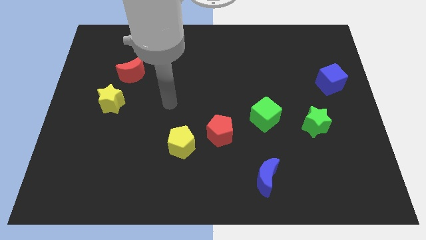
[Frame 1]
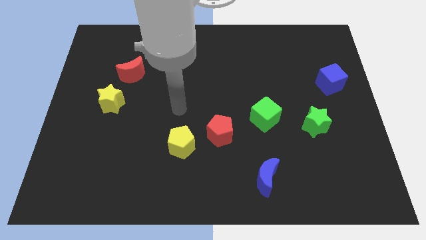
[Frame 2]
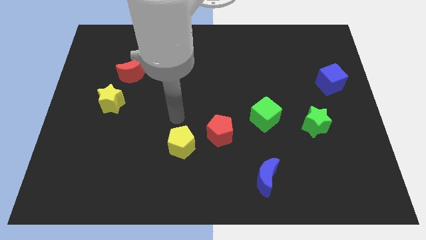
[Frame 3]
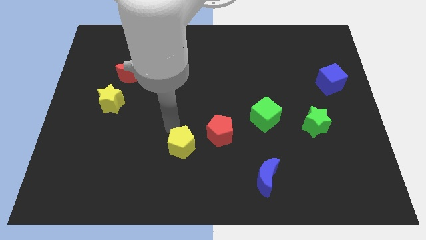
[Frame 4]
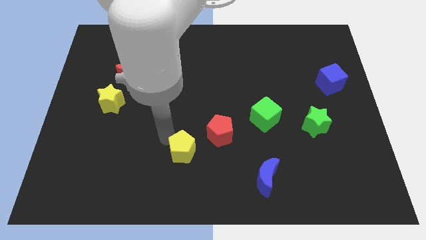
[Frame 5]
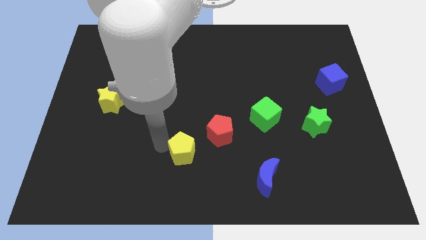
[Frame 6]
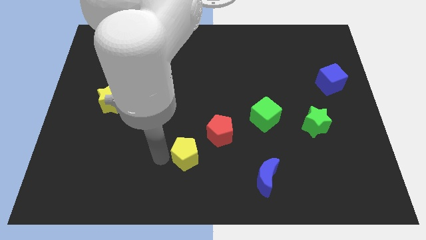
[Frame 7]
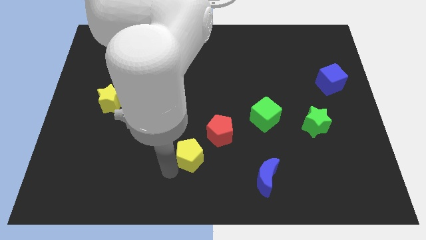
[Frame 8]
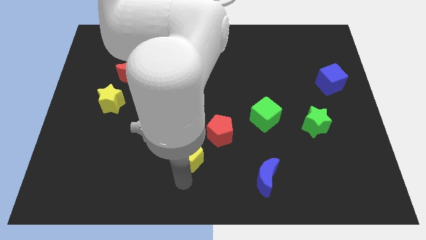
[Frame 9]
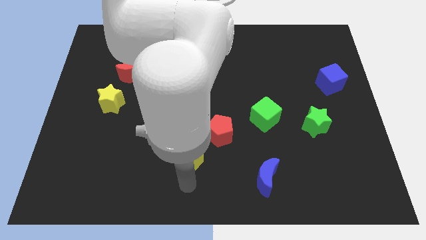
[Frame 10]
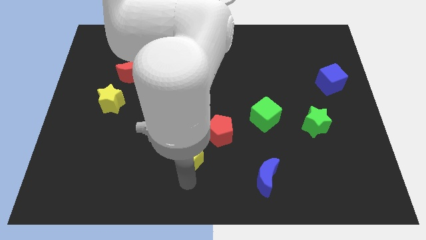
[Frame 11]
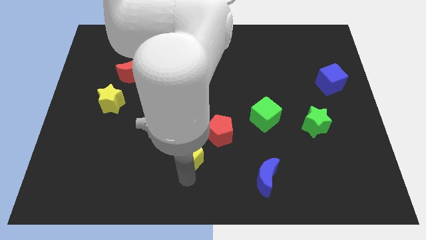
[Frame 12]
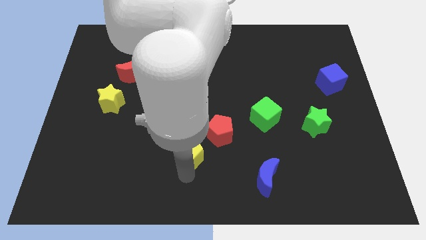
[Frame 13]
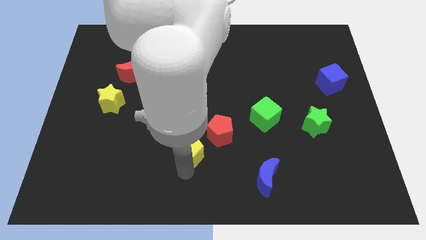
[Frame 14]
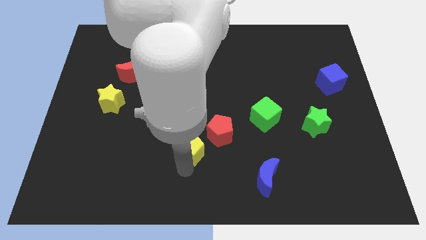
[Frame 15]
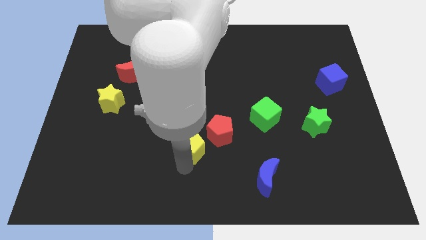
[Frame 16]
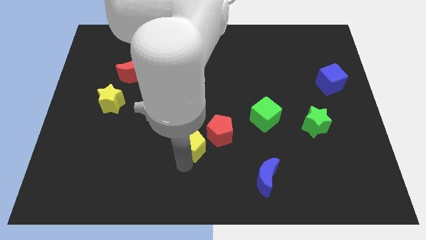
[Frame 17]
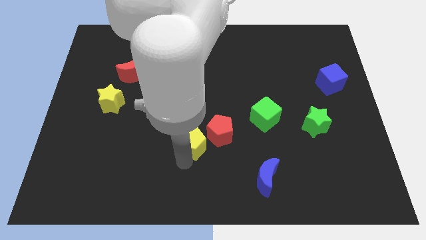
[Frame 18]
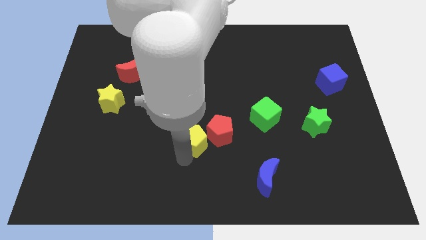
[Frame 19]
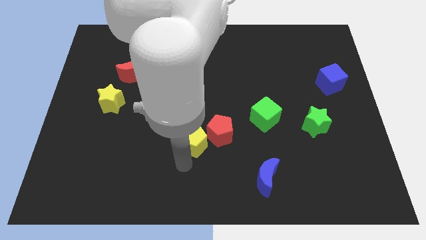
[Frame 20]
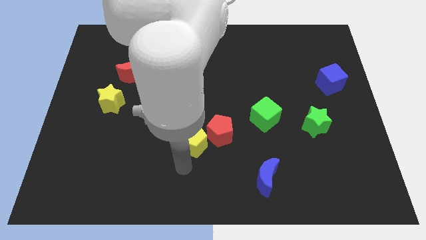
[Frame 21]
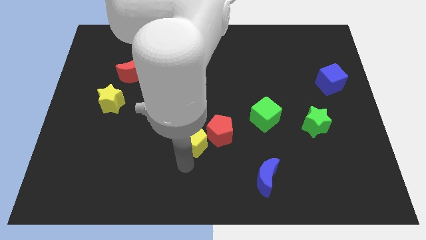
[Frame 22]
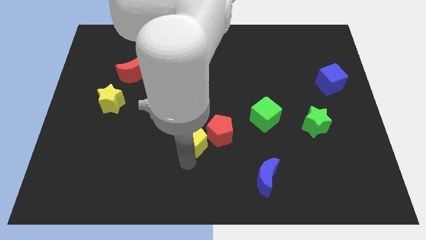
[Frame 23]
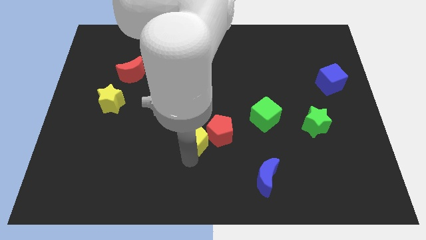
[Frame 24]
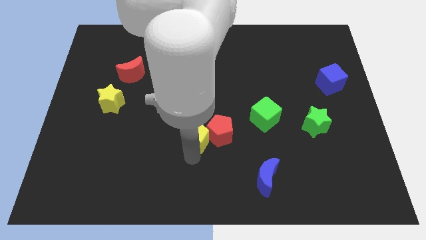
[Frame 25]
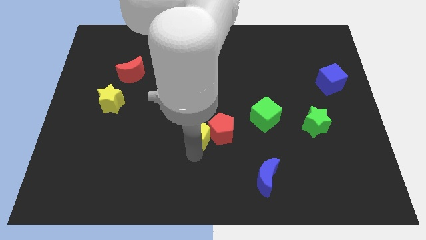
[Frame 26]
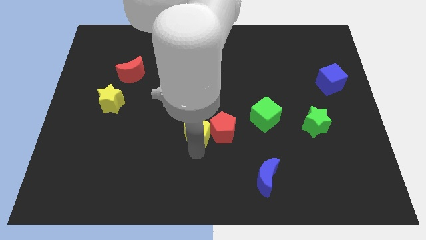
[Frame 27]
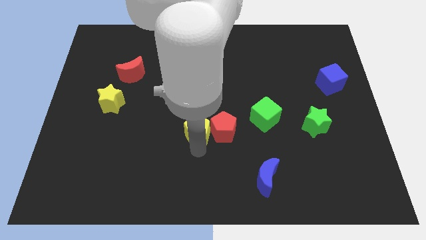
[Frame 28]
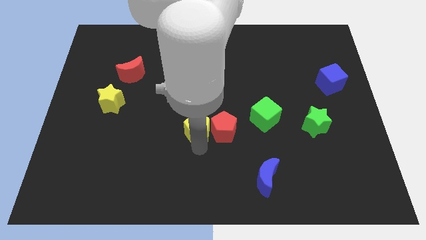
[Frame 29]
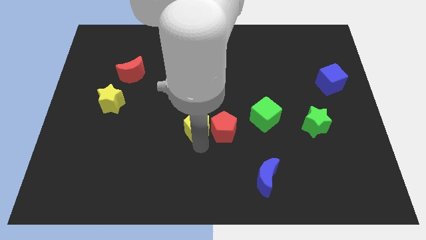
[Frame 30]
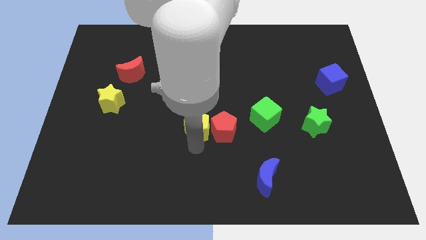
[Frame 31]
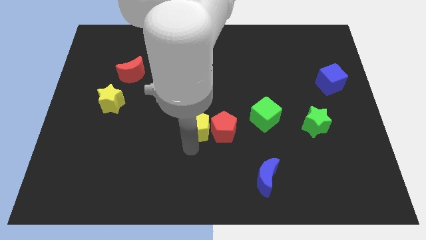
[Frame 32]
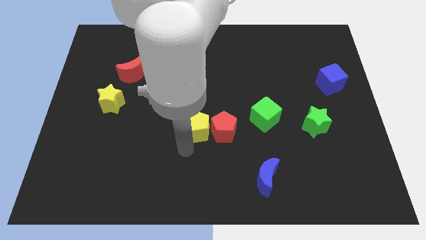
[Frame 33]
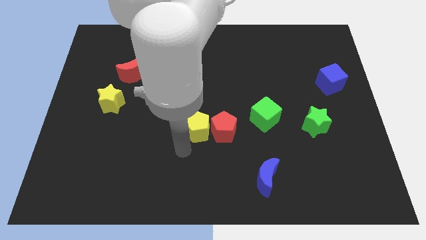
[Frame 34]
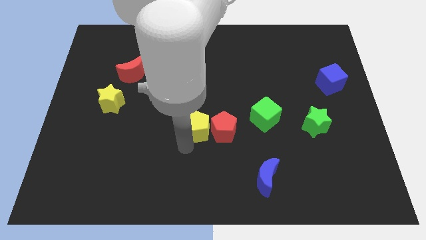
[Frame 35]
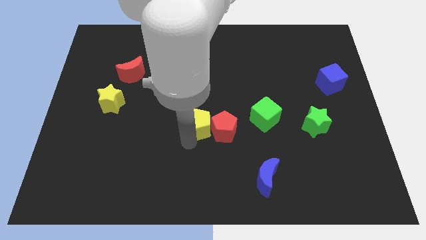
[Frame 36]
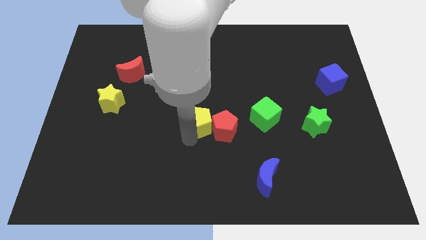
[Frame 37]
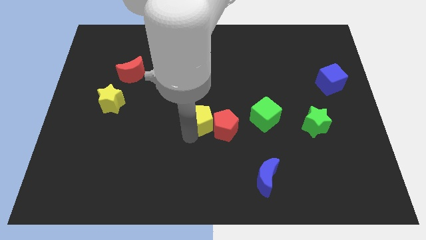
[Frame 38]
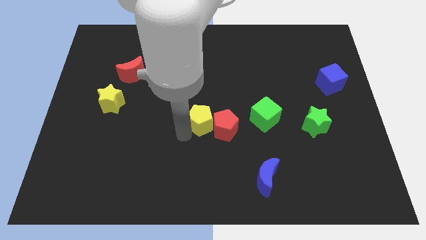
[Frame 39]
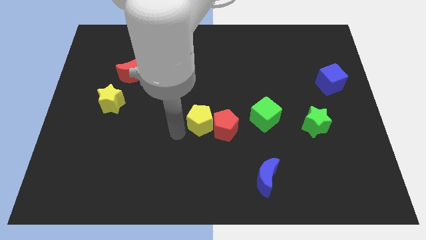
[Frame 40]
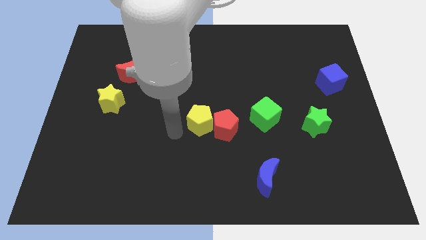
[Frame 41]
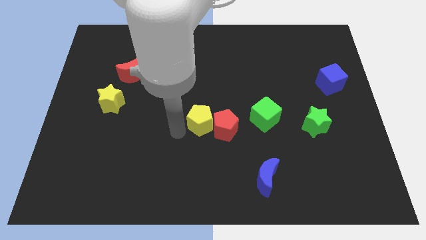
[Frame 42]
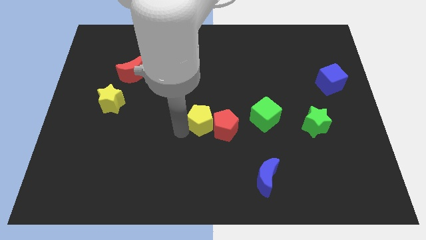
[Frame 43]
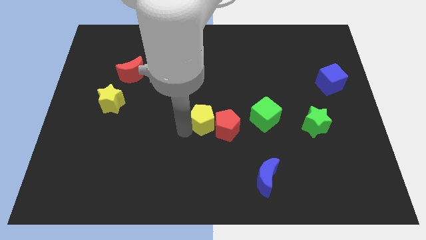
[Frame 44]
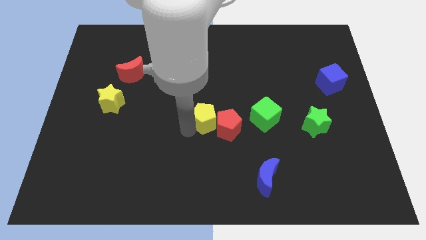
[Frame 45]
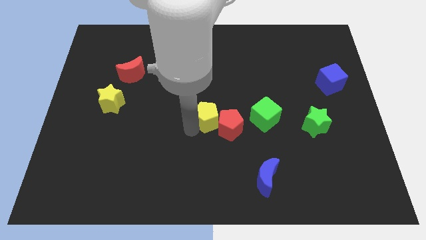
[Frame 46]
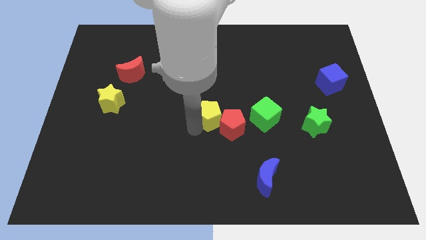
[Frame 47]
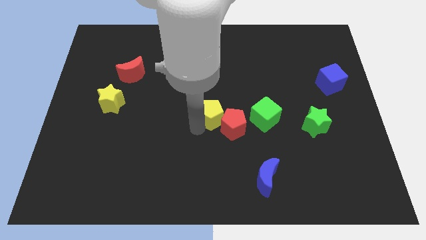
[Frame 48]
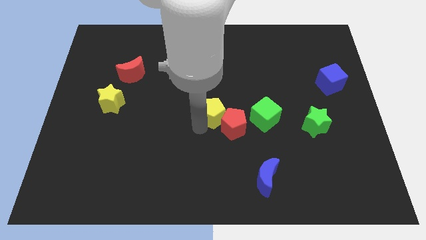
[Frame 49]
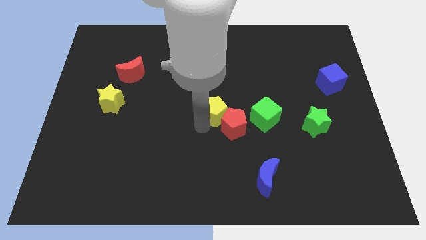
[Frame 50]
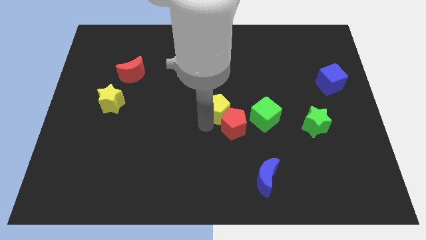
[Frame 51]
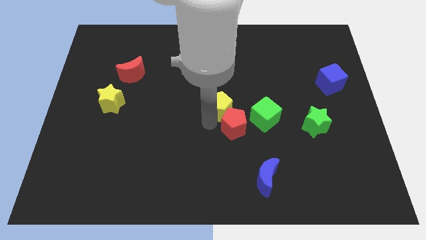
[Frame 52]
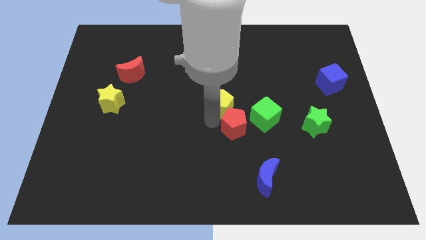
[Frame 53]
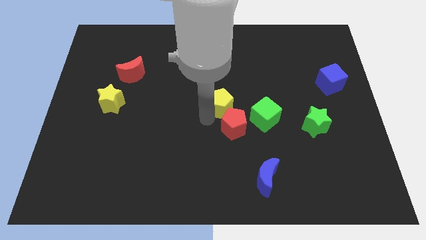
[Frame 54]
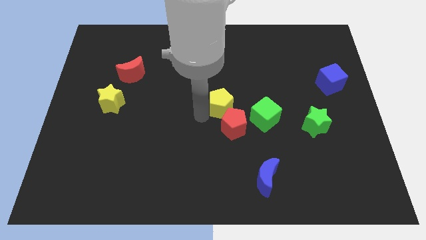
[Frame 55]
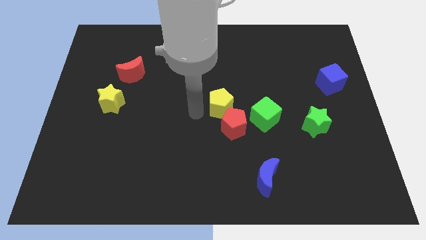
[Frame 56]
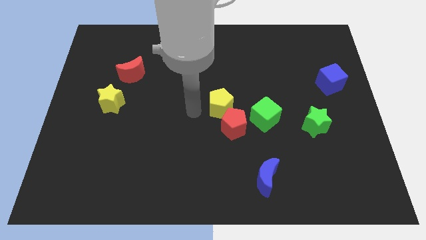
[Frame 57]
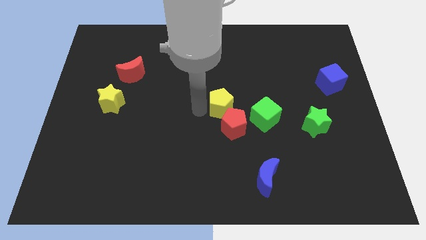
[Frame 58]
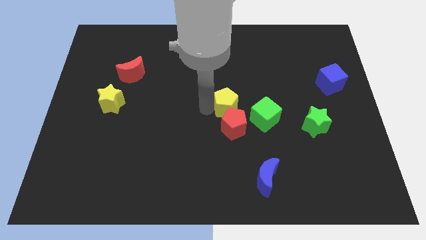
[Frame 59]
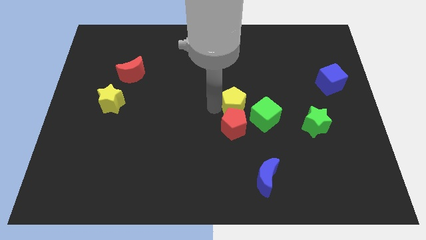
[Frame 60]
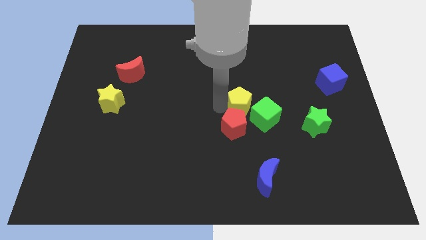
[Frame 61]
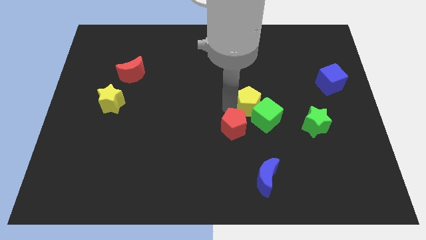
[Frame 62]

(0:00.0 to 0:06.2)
push the yellow pentagon above the green cube

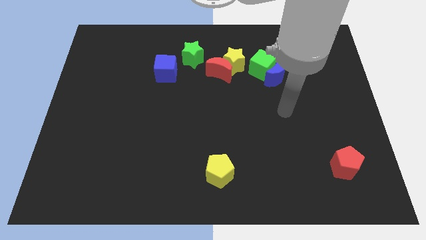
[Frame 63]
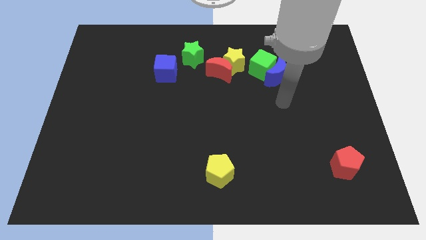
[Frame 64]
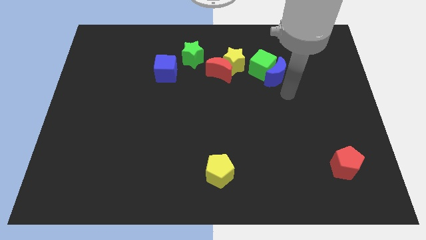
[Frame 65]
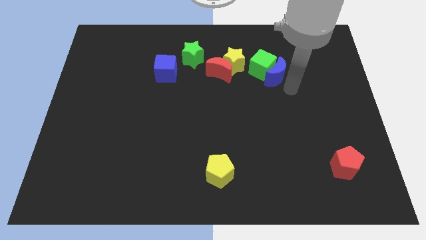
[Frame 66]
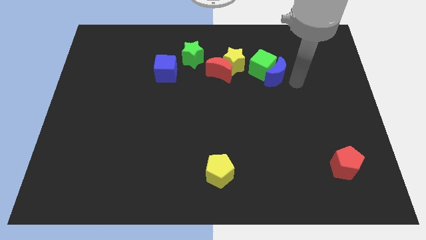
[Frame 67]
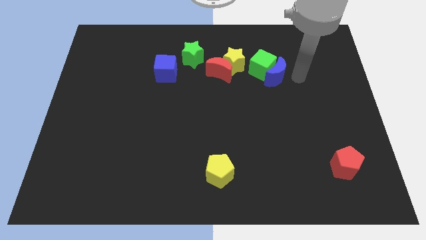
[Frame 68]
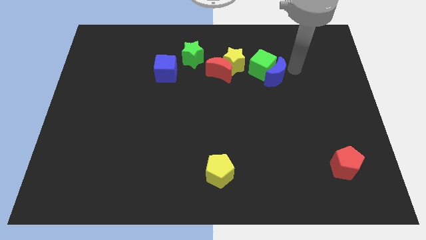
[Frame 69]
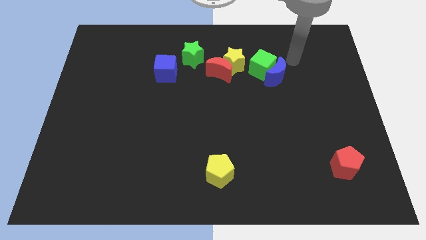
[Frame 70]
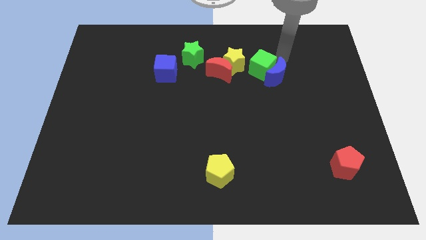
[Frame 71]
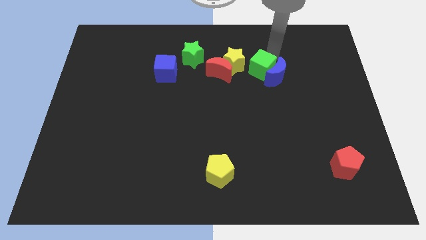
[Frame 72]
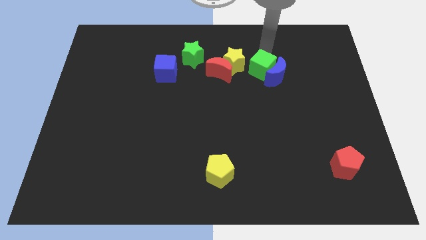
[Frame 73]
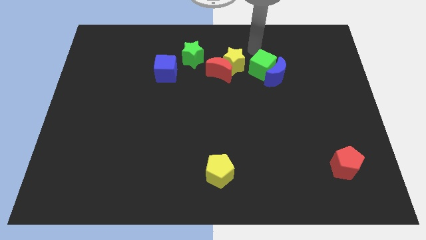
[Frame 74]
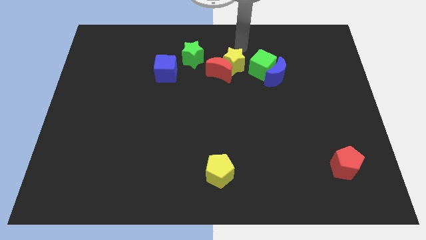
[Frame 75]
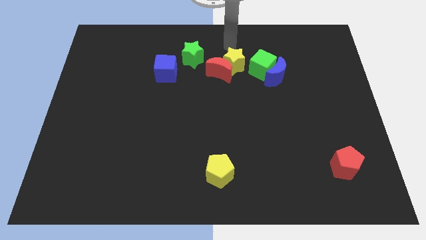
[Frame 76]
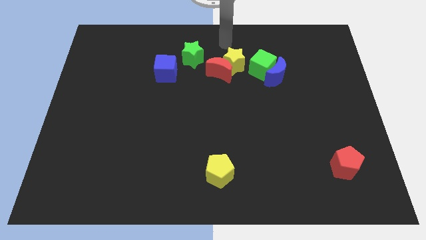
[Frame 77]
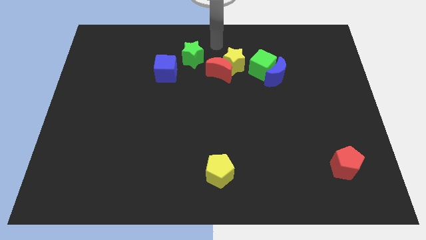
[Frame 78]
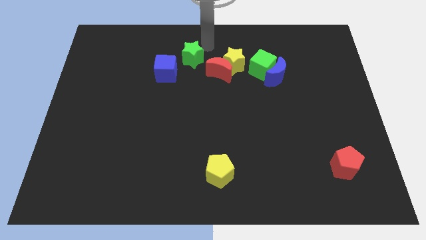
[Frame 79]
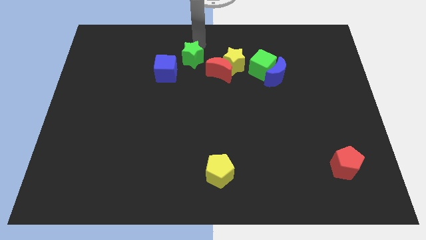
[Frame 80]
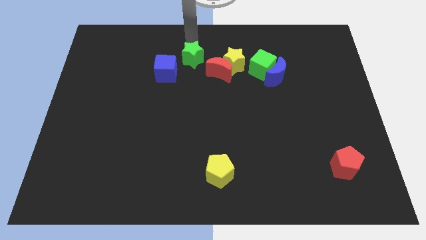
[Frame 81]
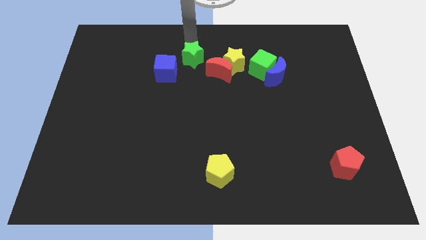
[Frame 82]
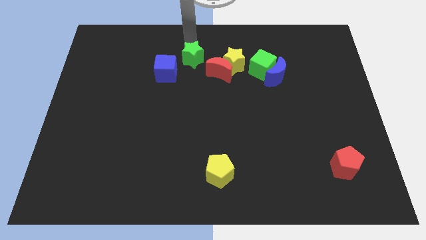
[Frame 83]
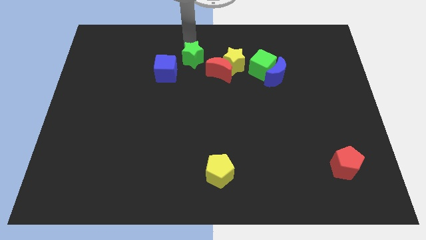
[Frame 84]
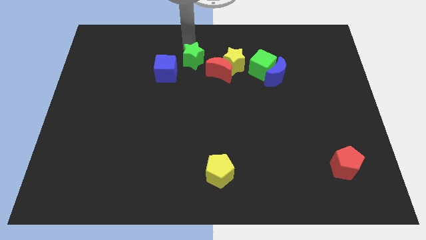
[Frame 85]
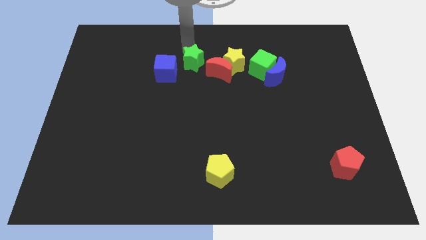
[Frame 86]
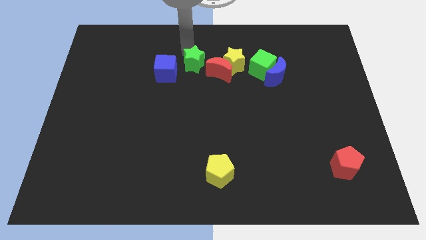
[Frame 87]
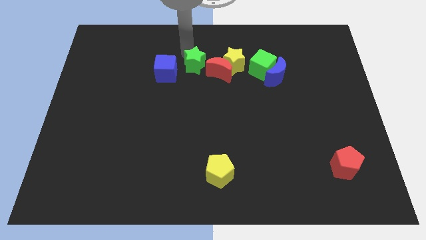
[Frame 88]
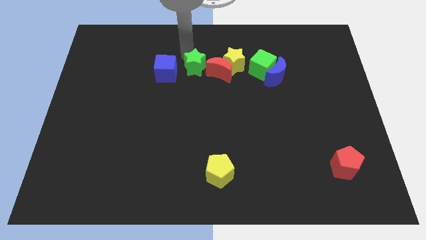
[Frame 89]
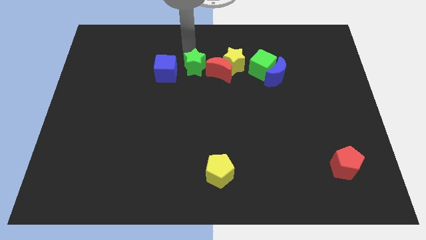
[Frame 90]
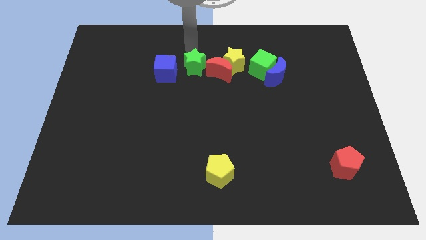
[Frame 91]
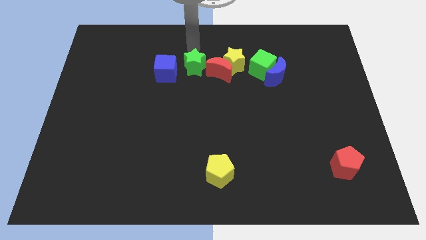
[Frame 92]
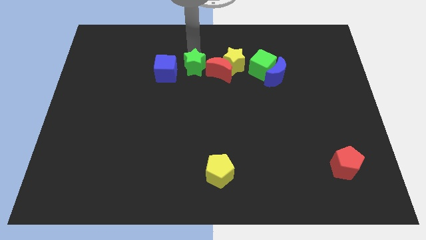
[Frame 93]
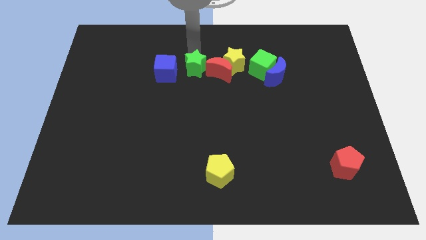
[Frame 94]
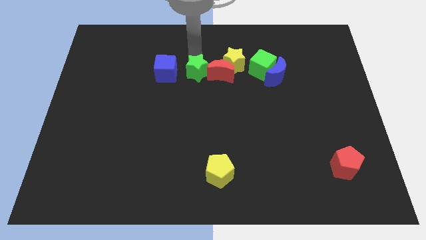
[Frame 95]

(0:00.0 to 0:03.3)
move the green star to the bottom left of the red moon
